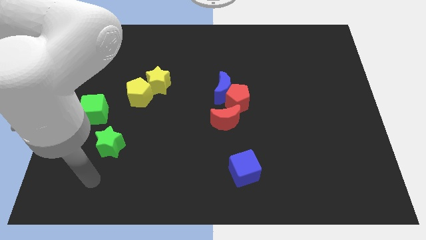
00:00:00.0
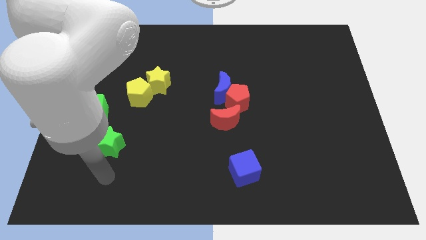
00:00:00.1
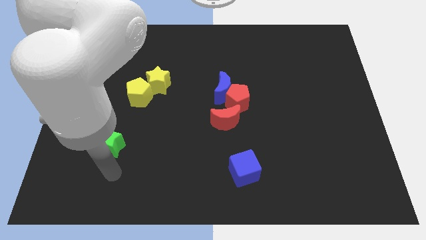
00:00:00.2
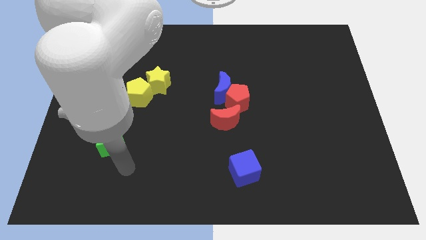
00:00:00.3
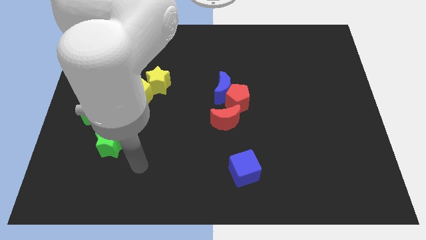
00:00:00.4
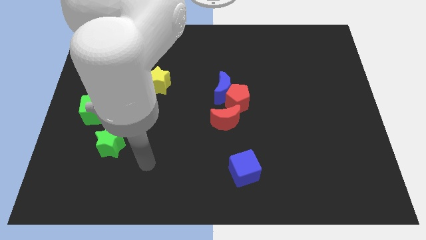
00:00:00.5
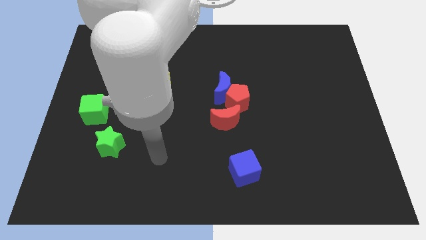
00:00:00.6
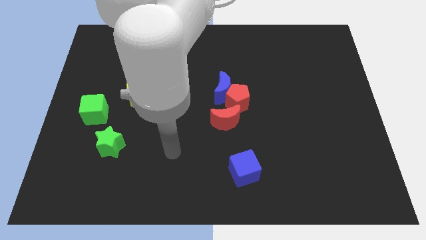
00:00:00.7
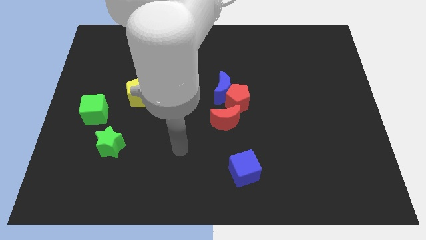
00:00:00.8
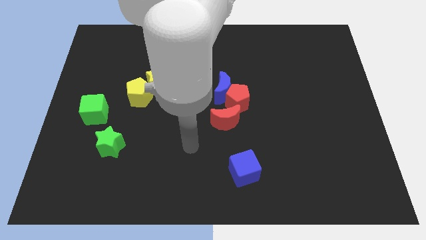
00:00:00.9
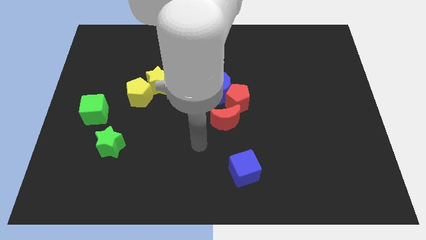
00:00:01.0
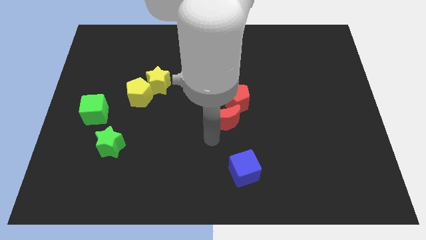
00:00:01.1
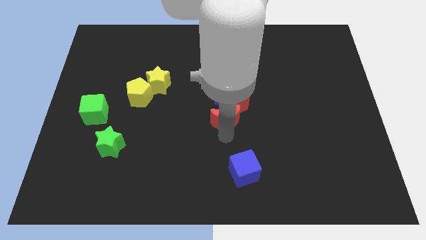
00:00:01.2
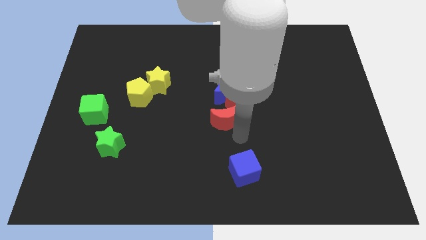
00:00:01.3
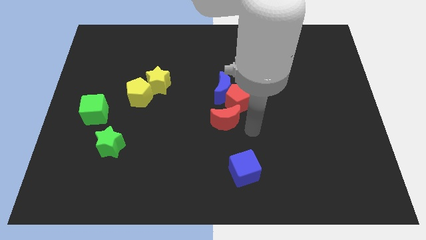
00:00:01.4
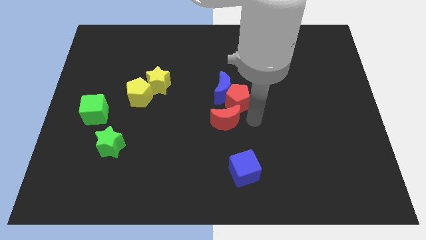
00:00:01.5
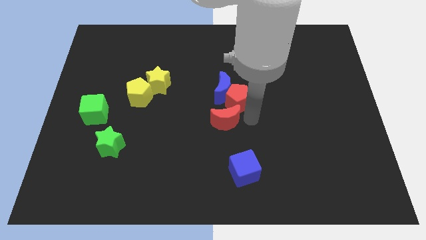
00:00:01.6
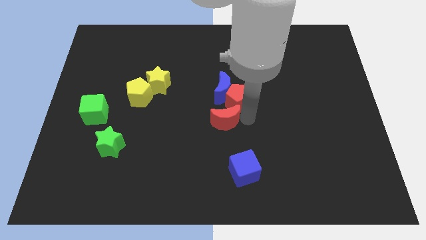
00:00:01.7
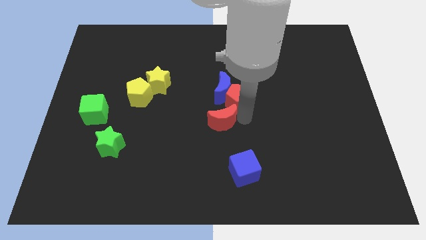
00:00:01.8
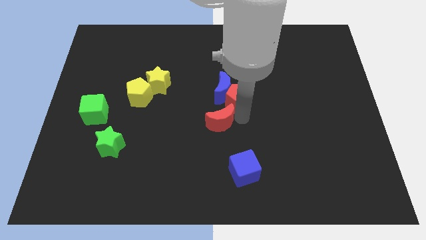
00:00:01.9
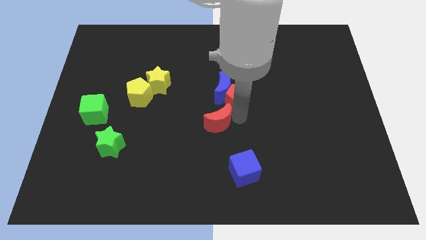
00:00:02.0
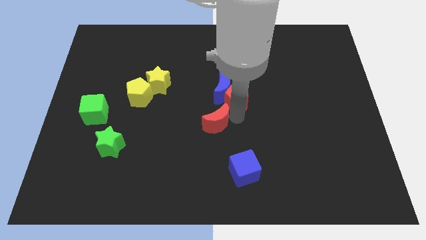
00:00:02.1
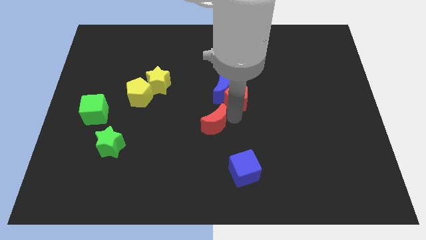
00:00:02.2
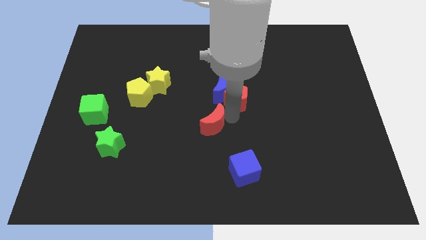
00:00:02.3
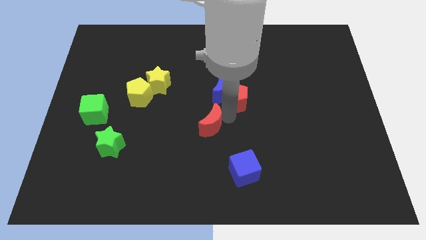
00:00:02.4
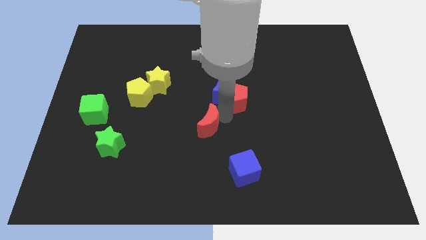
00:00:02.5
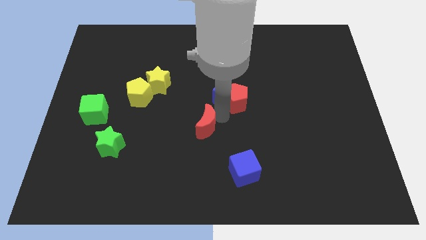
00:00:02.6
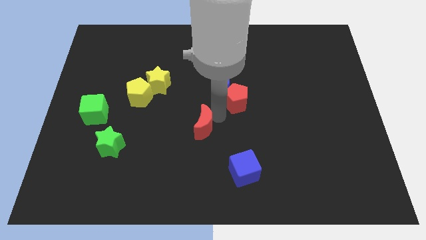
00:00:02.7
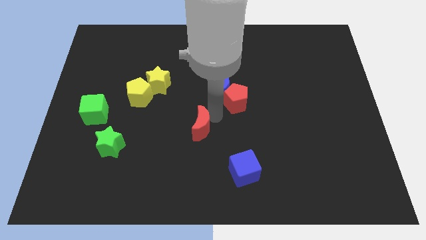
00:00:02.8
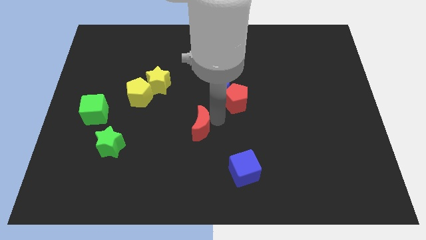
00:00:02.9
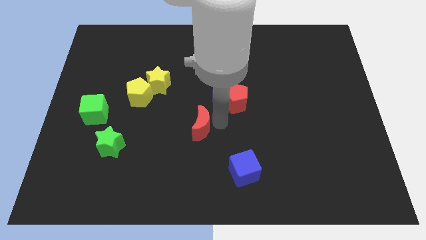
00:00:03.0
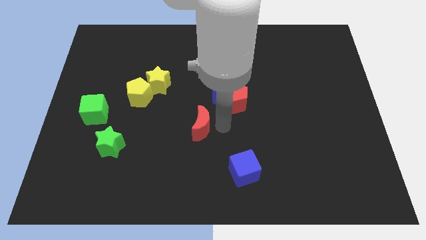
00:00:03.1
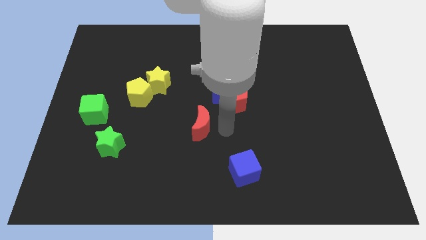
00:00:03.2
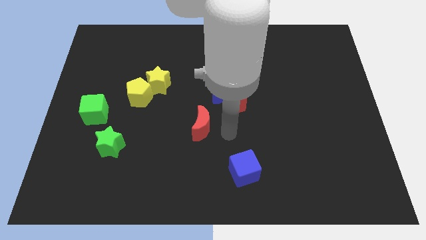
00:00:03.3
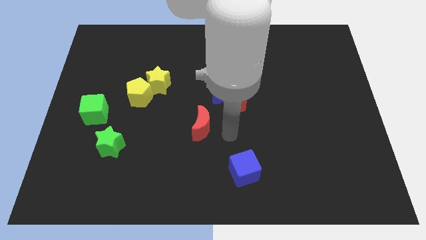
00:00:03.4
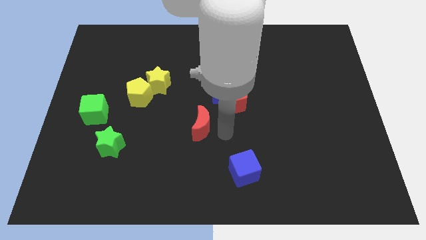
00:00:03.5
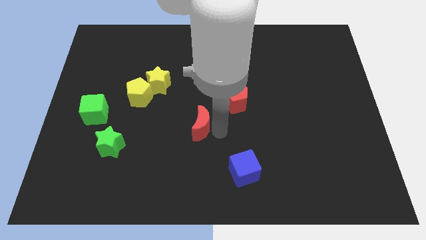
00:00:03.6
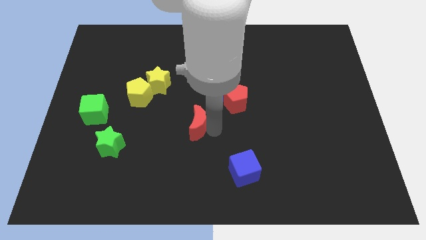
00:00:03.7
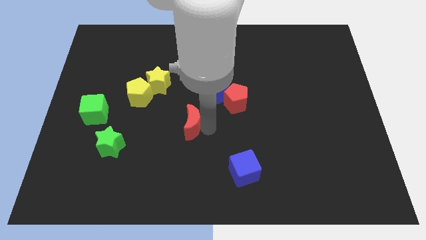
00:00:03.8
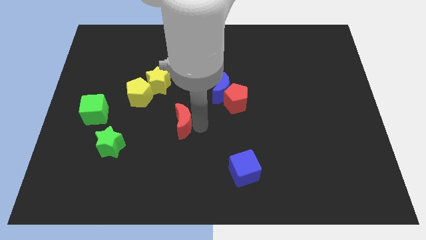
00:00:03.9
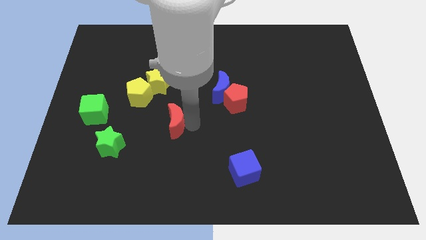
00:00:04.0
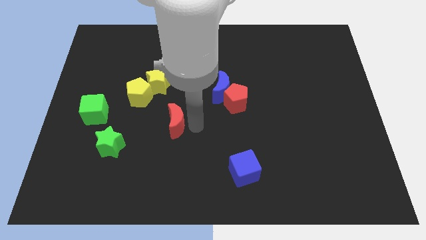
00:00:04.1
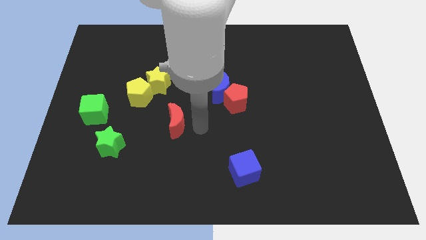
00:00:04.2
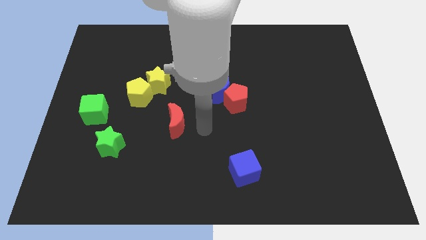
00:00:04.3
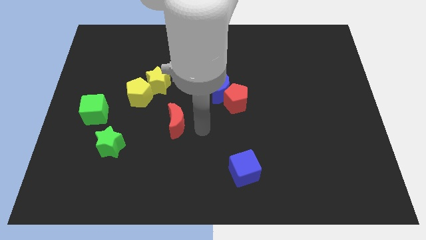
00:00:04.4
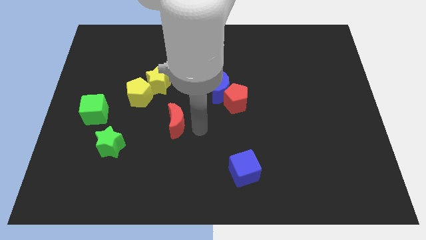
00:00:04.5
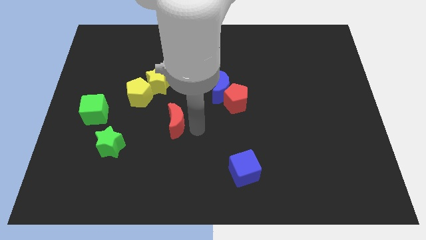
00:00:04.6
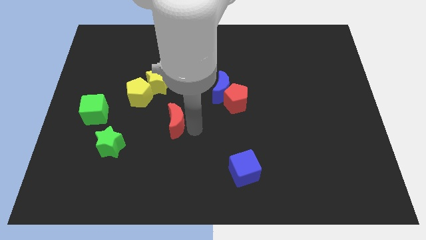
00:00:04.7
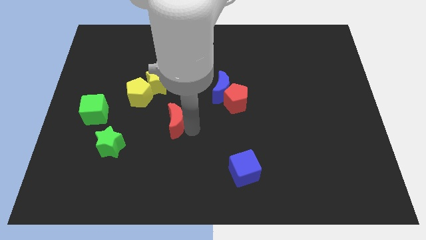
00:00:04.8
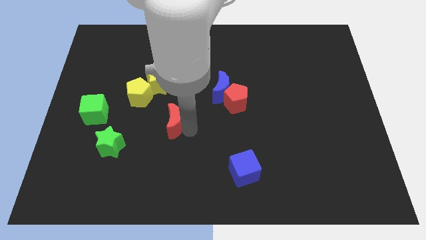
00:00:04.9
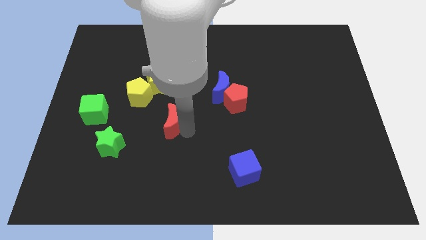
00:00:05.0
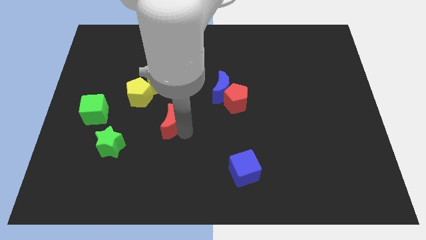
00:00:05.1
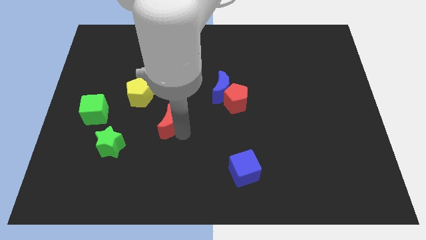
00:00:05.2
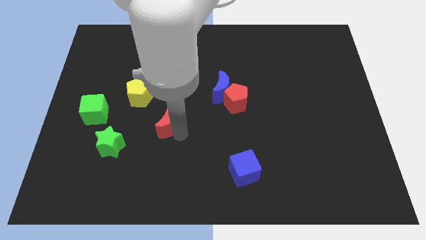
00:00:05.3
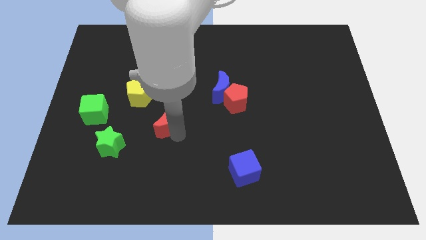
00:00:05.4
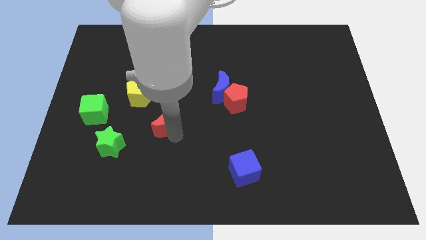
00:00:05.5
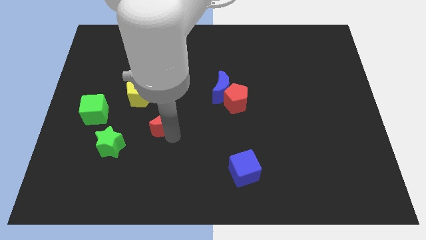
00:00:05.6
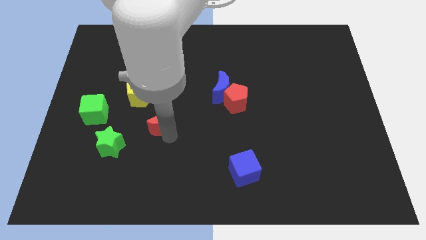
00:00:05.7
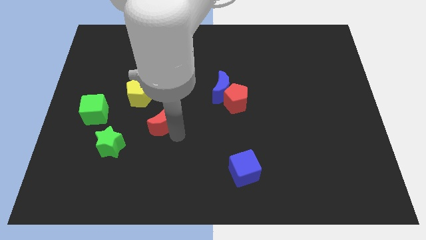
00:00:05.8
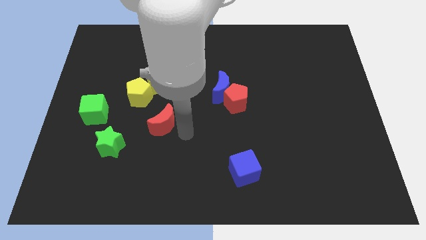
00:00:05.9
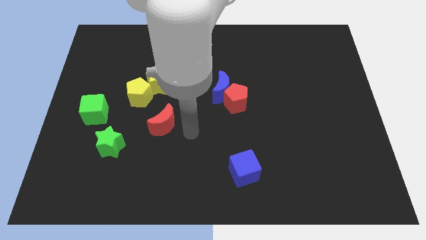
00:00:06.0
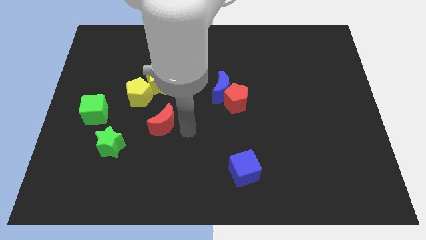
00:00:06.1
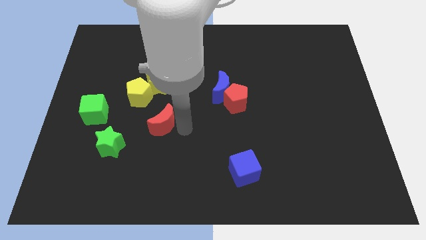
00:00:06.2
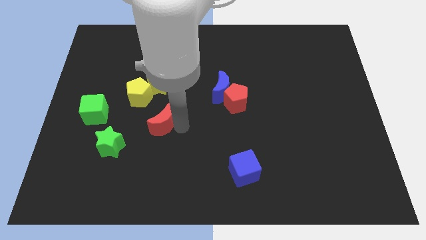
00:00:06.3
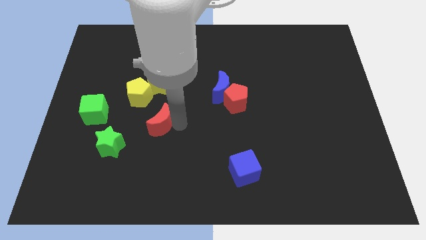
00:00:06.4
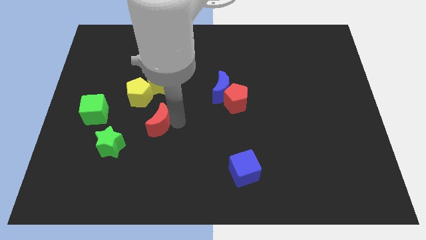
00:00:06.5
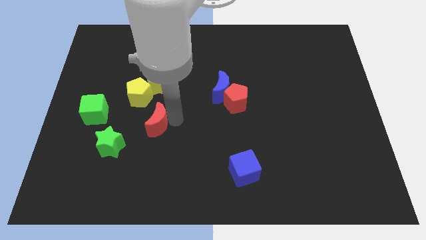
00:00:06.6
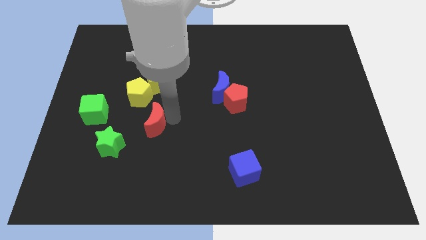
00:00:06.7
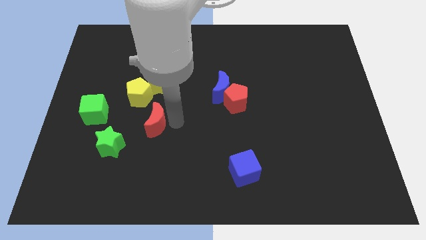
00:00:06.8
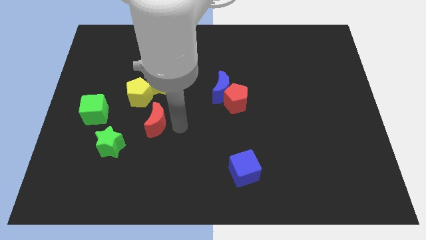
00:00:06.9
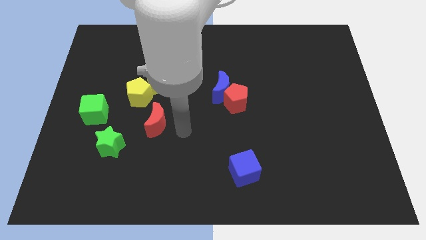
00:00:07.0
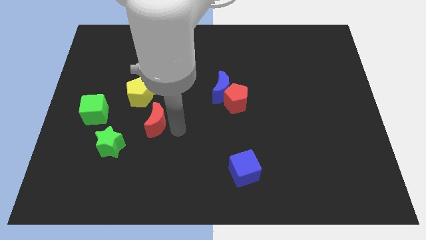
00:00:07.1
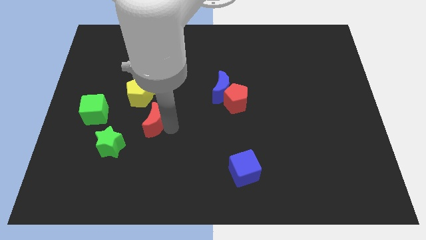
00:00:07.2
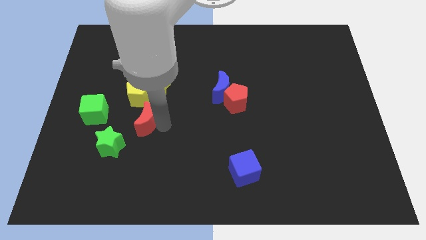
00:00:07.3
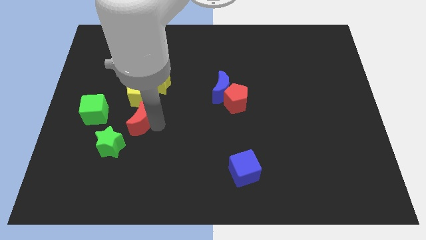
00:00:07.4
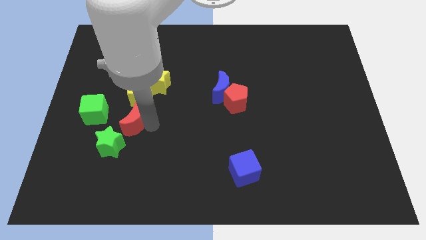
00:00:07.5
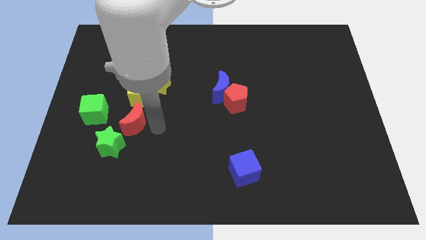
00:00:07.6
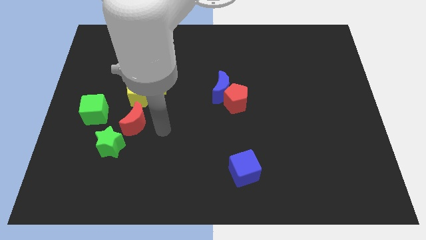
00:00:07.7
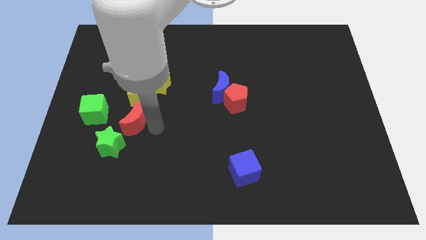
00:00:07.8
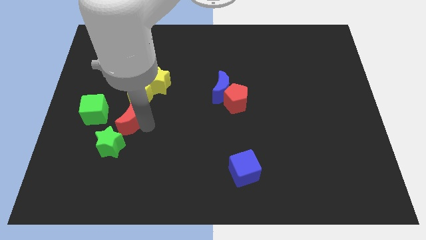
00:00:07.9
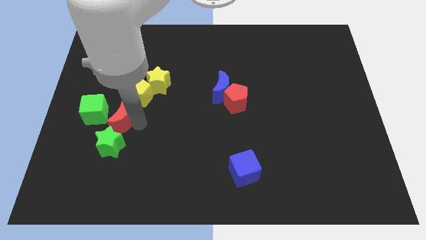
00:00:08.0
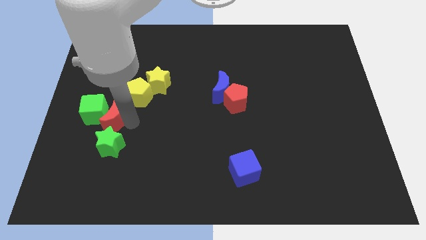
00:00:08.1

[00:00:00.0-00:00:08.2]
slide the red moon towards the green cube
